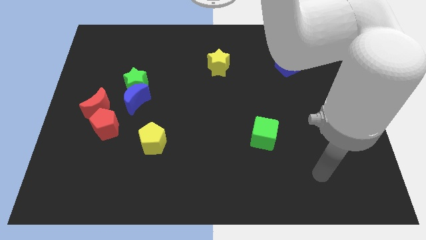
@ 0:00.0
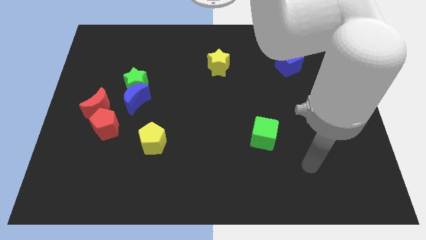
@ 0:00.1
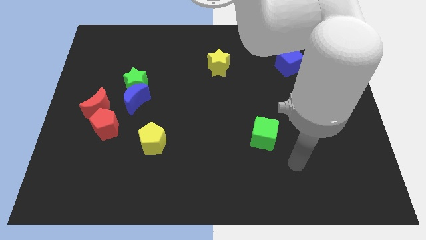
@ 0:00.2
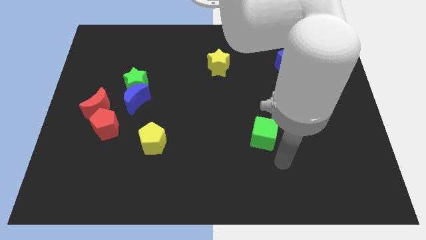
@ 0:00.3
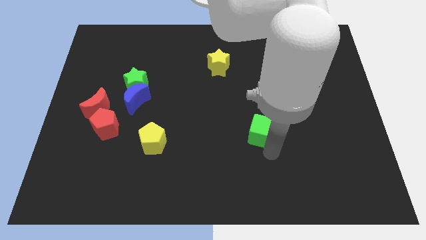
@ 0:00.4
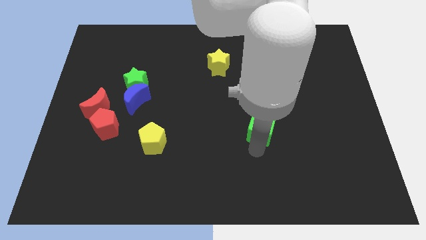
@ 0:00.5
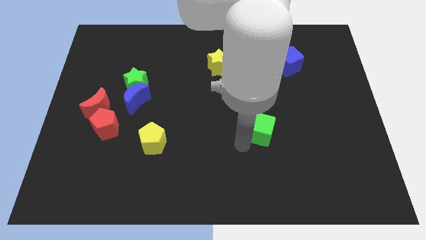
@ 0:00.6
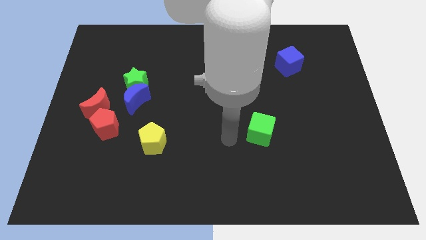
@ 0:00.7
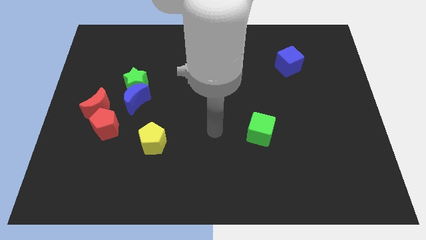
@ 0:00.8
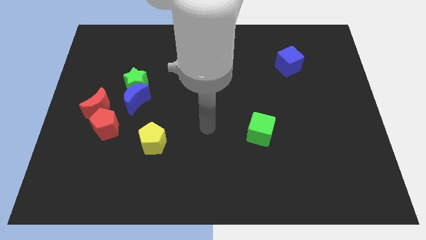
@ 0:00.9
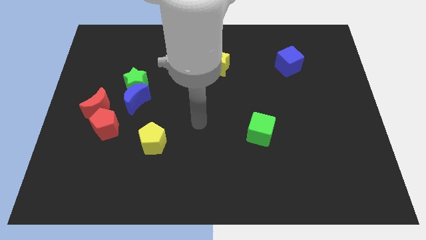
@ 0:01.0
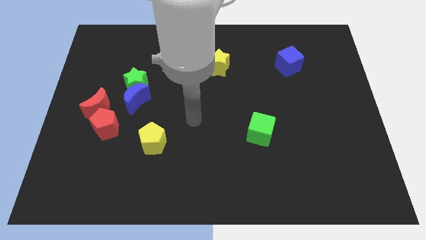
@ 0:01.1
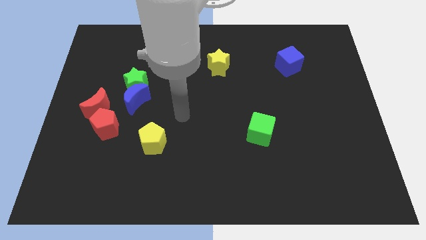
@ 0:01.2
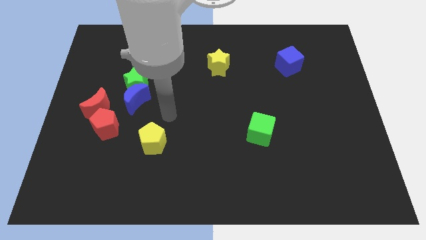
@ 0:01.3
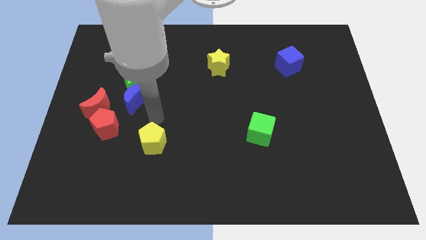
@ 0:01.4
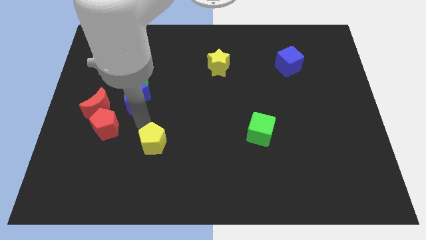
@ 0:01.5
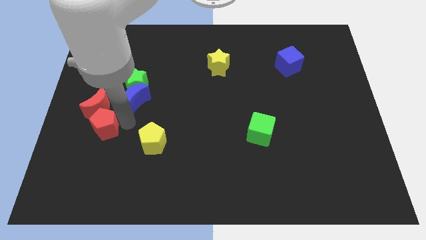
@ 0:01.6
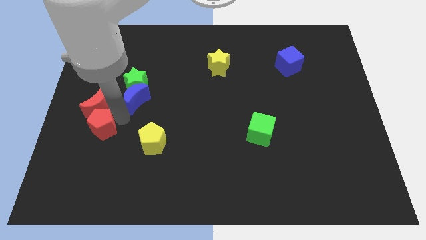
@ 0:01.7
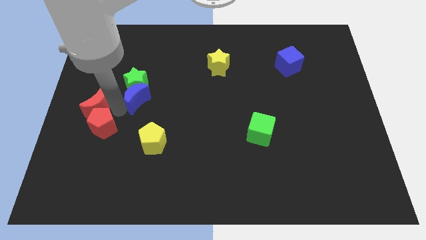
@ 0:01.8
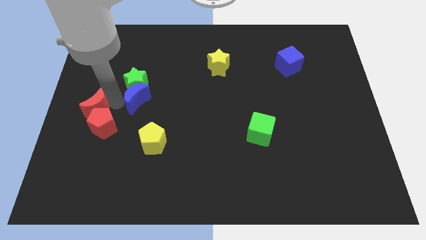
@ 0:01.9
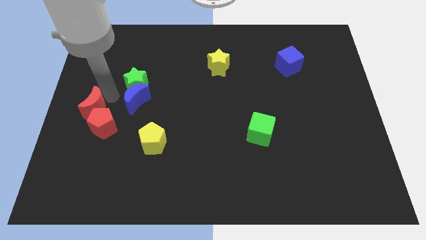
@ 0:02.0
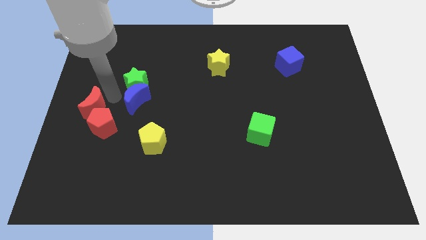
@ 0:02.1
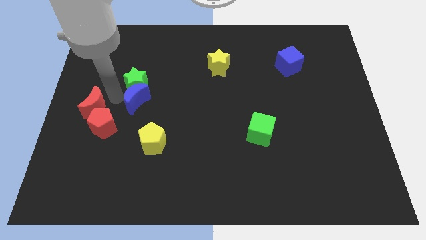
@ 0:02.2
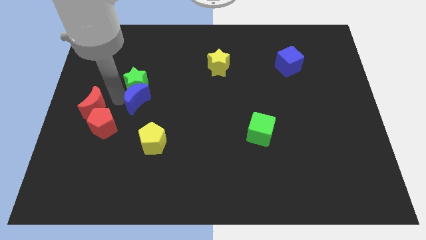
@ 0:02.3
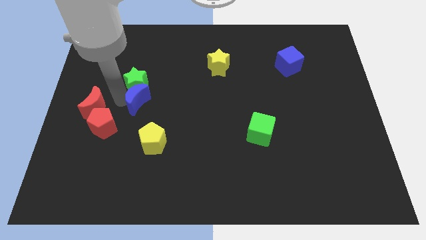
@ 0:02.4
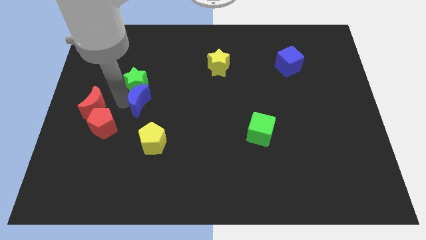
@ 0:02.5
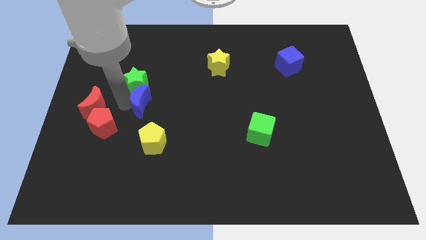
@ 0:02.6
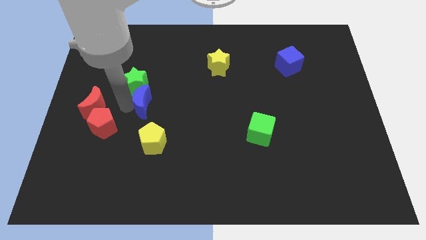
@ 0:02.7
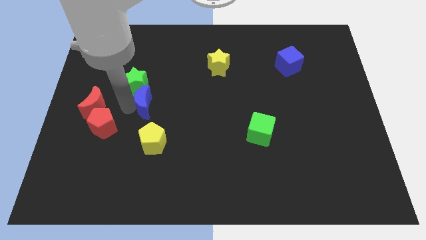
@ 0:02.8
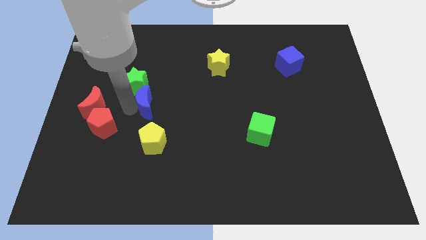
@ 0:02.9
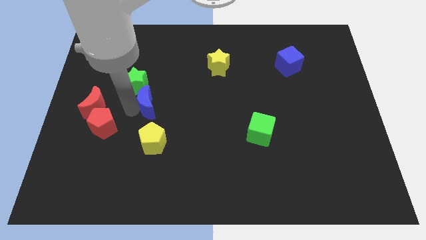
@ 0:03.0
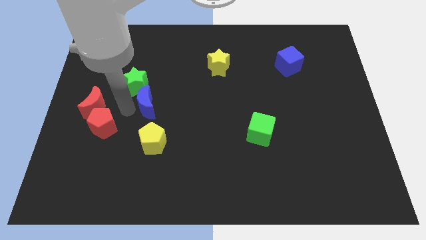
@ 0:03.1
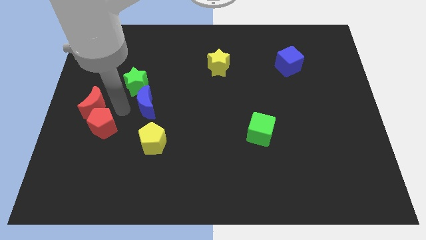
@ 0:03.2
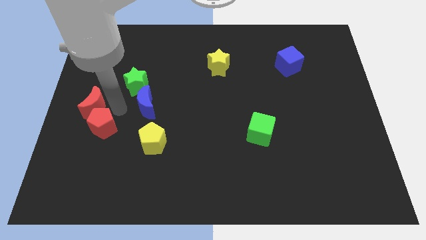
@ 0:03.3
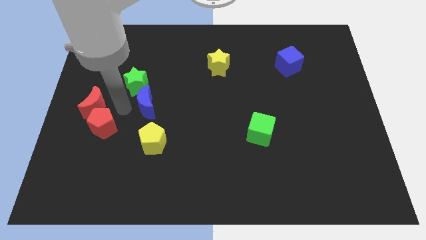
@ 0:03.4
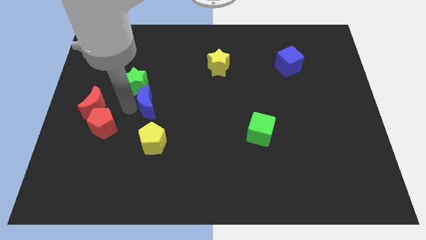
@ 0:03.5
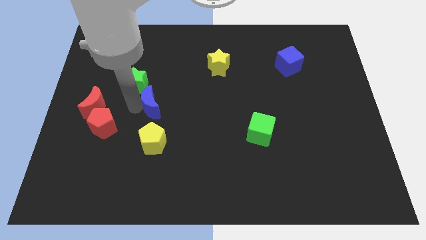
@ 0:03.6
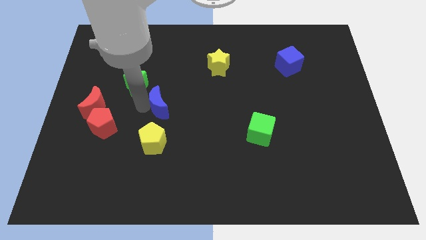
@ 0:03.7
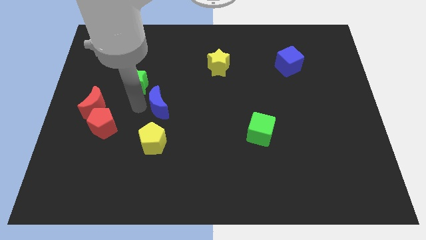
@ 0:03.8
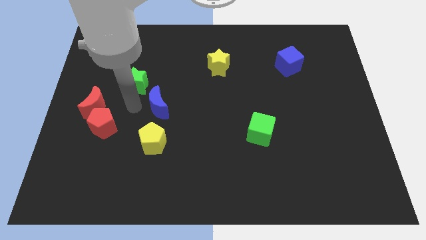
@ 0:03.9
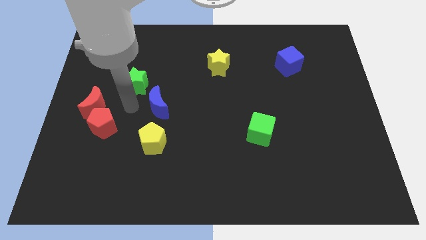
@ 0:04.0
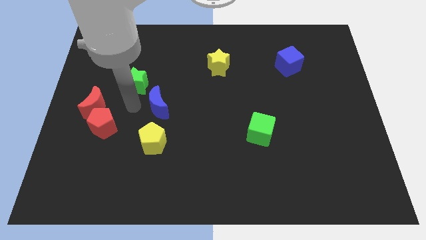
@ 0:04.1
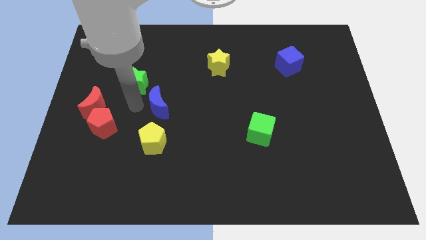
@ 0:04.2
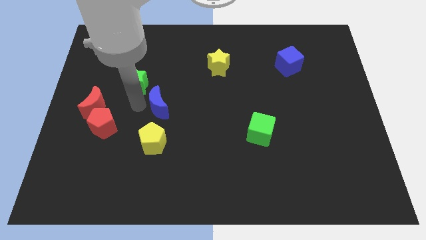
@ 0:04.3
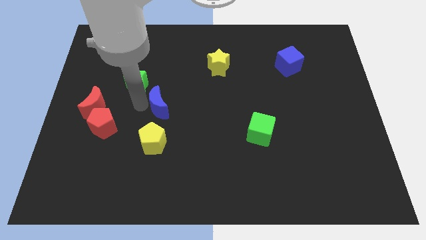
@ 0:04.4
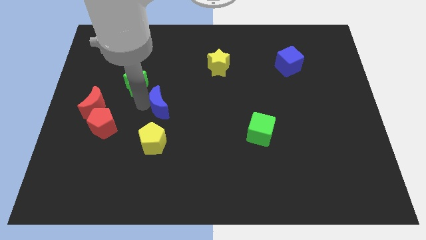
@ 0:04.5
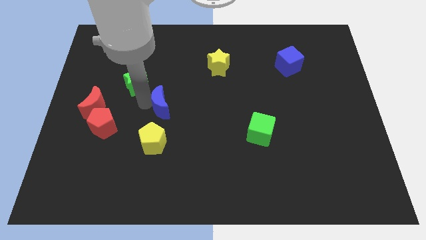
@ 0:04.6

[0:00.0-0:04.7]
move the blue moon to the center of the board

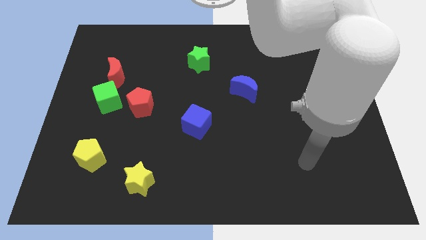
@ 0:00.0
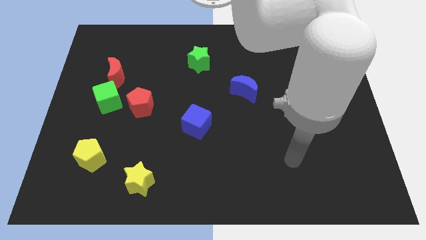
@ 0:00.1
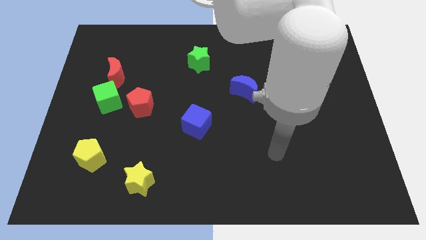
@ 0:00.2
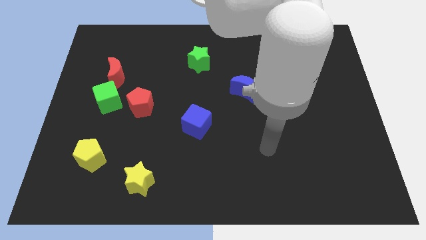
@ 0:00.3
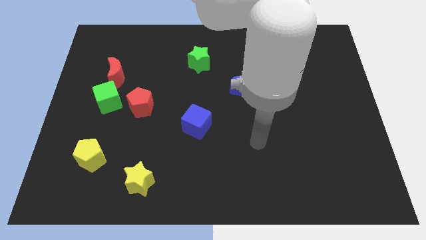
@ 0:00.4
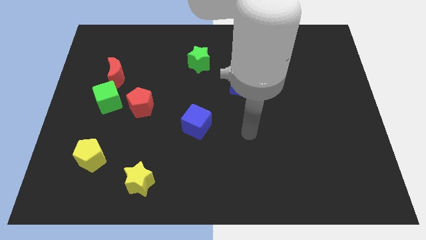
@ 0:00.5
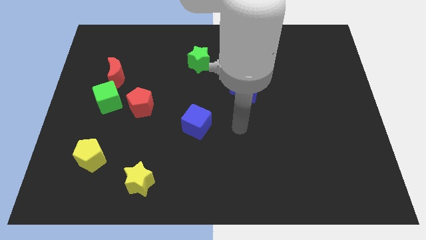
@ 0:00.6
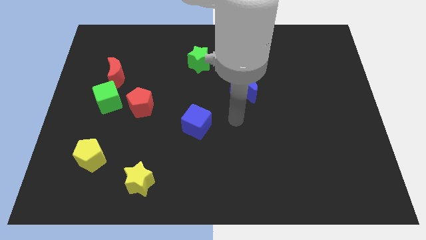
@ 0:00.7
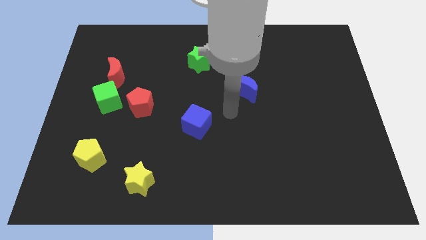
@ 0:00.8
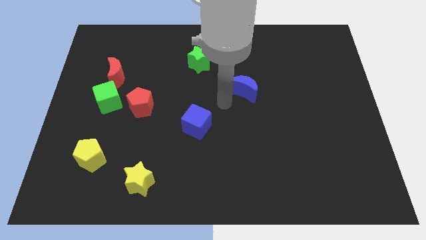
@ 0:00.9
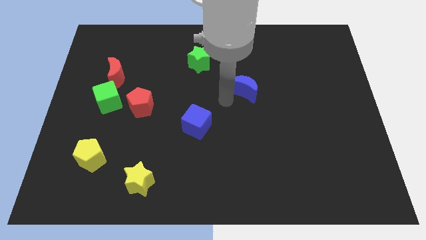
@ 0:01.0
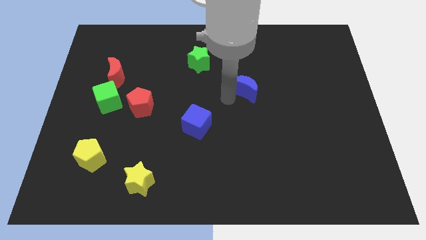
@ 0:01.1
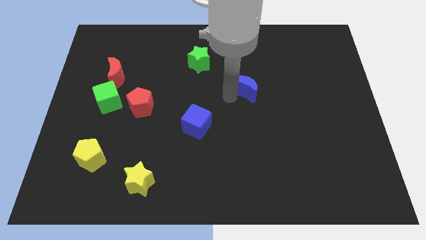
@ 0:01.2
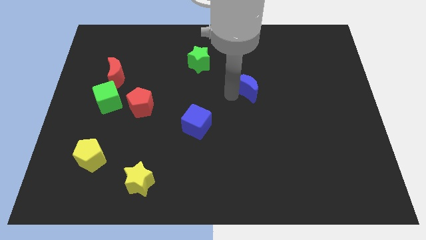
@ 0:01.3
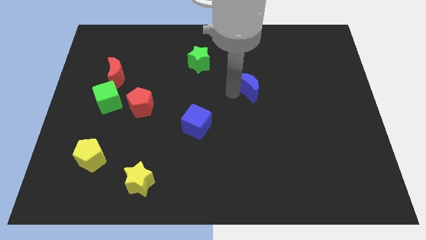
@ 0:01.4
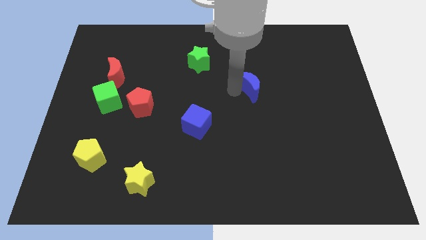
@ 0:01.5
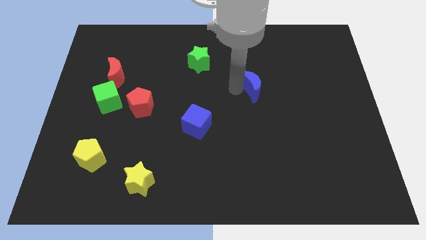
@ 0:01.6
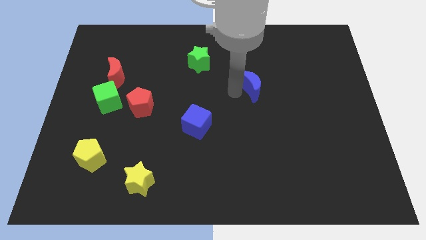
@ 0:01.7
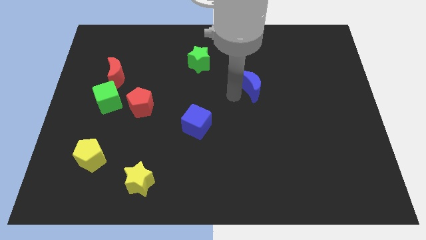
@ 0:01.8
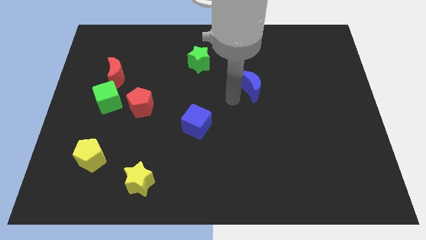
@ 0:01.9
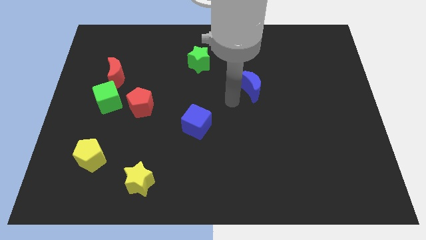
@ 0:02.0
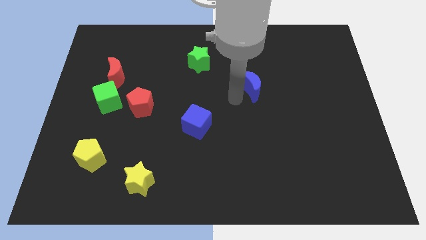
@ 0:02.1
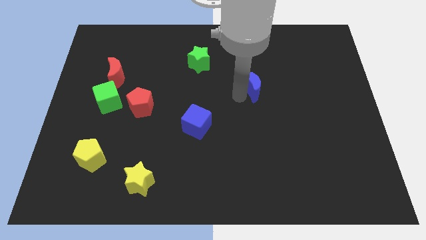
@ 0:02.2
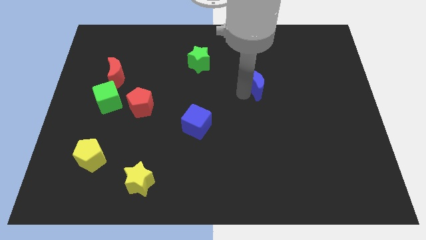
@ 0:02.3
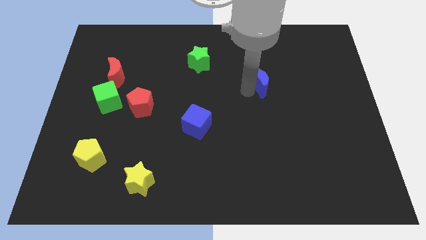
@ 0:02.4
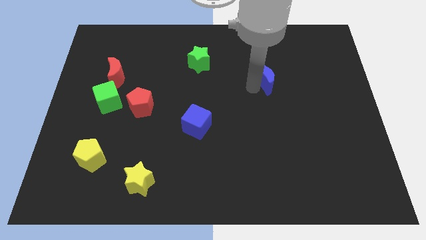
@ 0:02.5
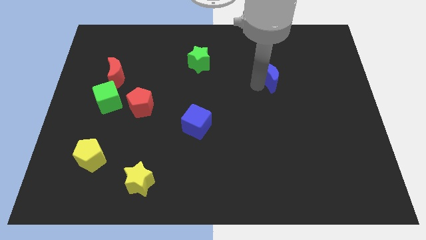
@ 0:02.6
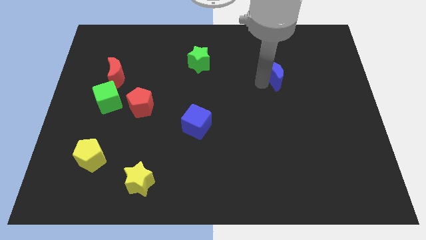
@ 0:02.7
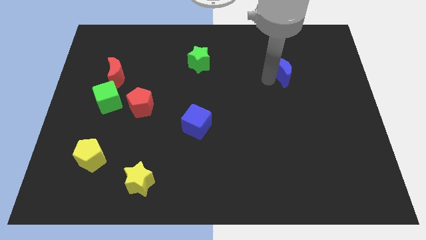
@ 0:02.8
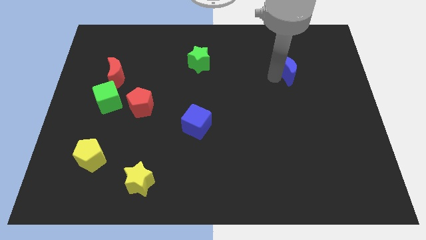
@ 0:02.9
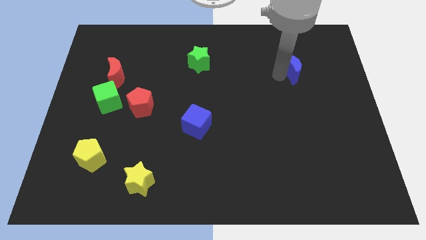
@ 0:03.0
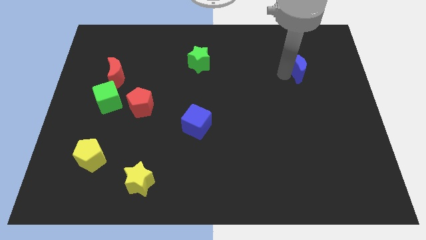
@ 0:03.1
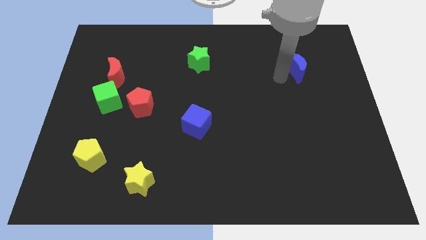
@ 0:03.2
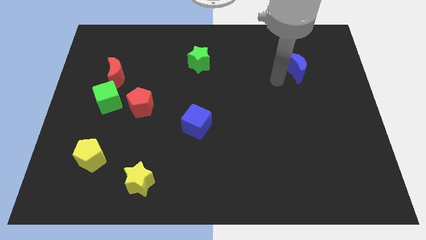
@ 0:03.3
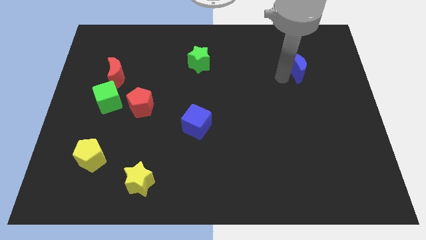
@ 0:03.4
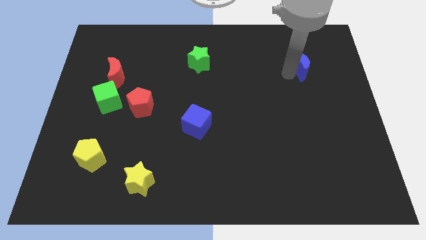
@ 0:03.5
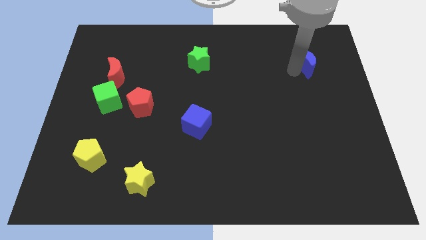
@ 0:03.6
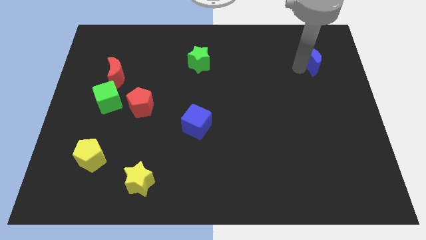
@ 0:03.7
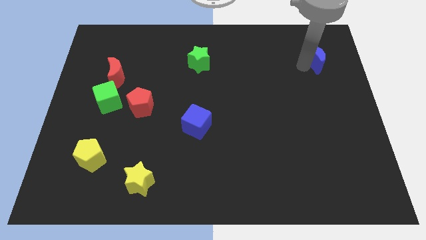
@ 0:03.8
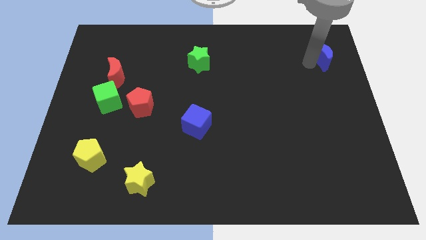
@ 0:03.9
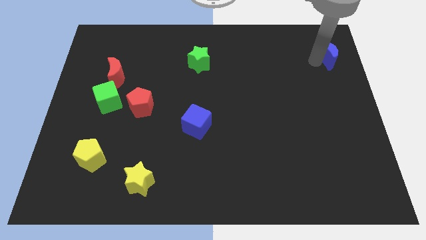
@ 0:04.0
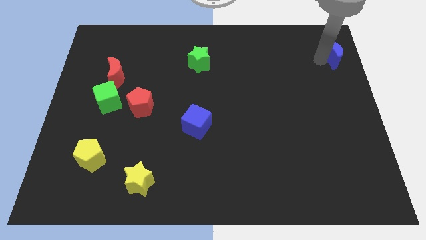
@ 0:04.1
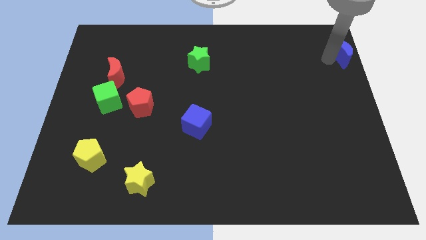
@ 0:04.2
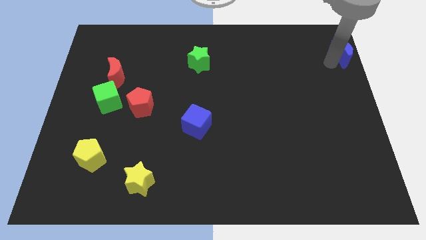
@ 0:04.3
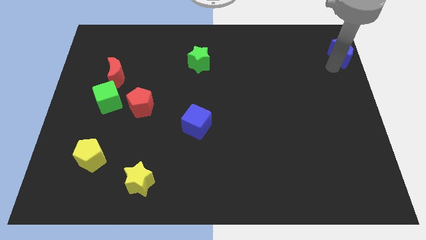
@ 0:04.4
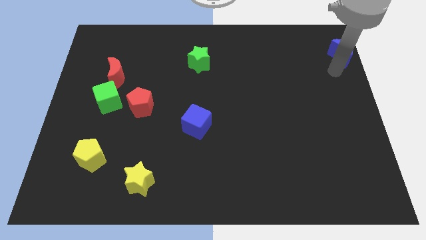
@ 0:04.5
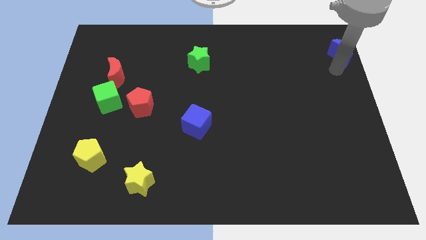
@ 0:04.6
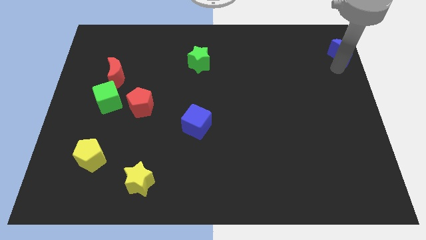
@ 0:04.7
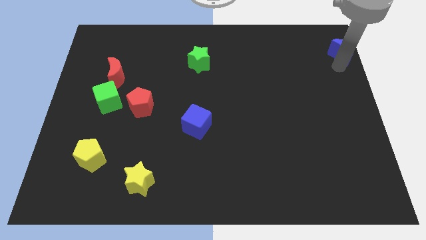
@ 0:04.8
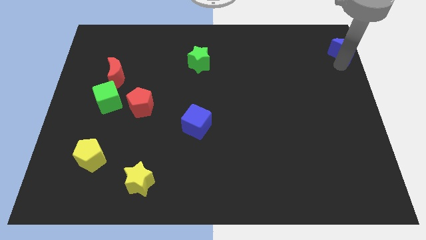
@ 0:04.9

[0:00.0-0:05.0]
put the blue moon to the top right of the board
